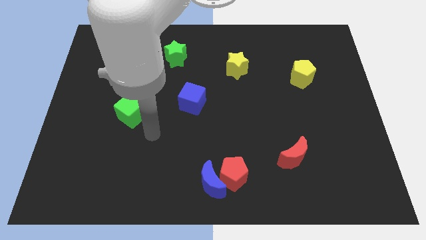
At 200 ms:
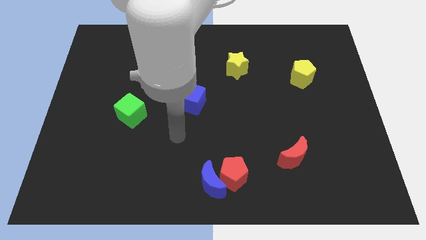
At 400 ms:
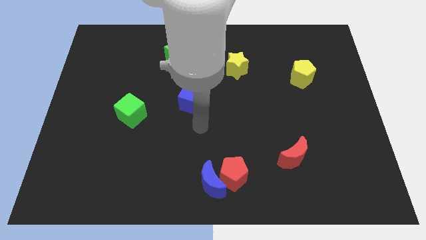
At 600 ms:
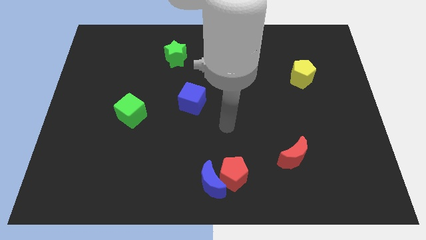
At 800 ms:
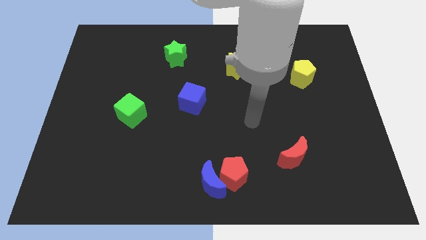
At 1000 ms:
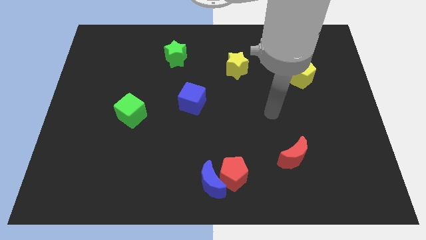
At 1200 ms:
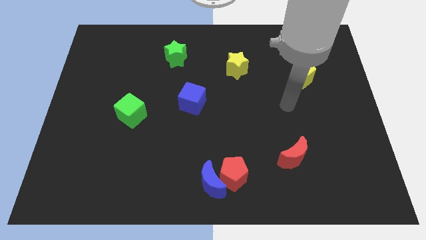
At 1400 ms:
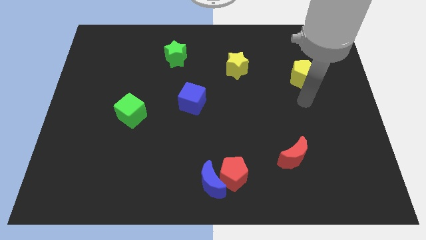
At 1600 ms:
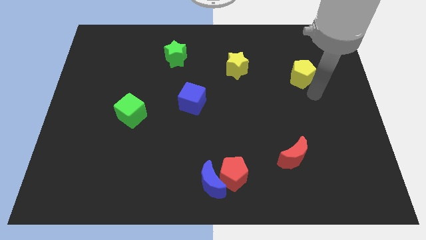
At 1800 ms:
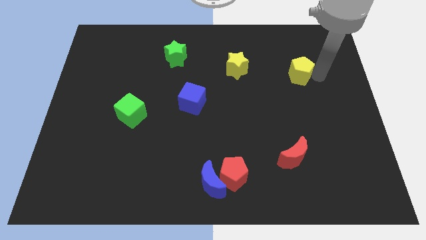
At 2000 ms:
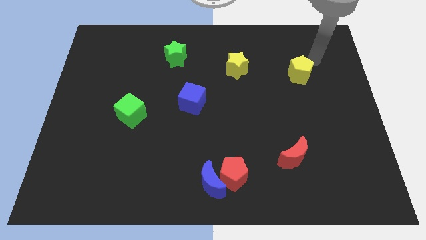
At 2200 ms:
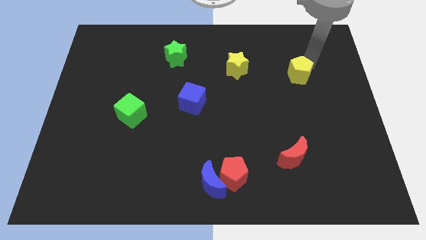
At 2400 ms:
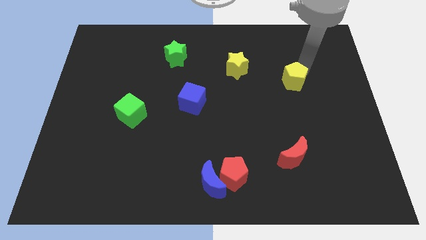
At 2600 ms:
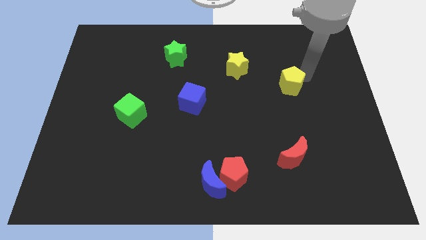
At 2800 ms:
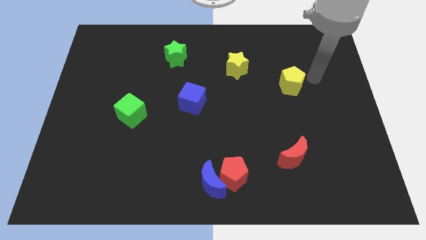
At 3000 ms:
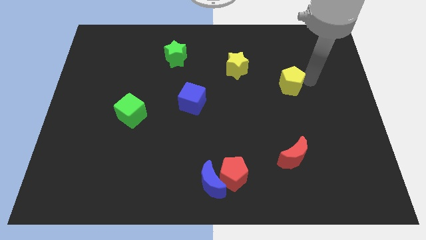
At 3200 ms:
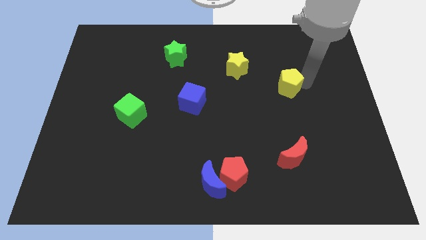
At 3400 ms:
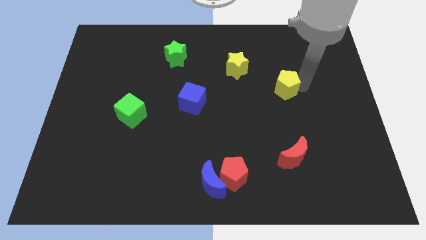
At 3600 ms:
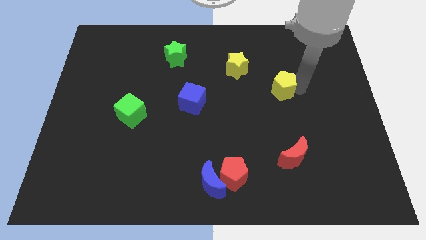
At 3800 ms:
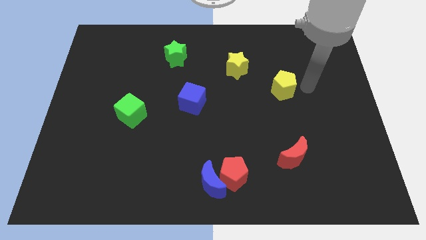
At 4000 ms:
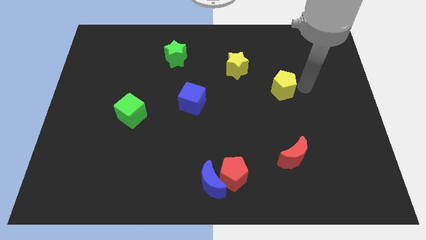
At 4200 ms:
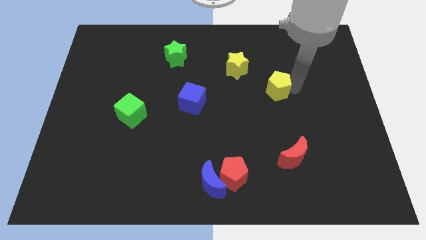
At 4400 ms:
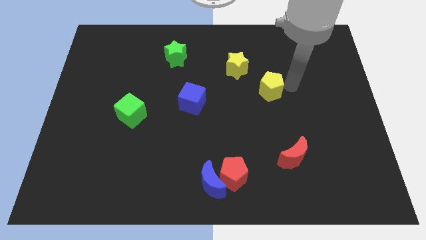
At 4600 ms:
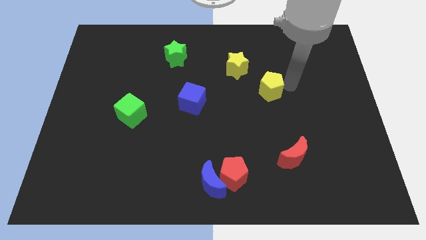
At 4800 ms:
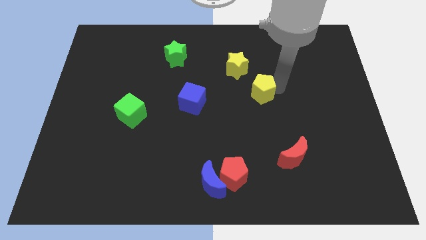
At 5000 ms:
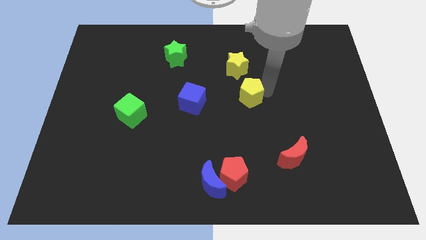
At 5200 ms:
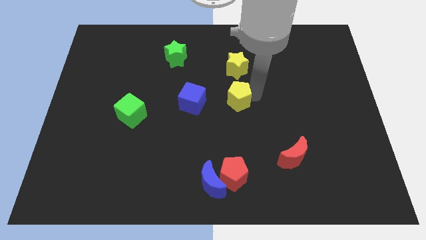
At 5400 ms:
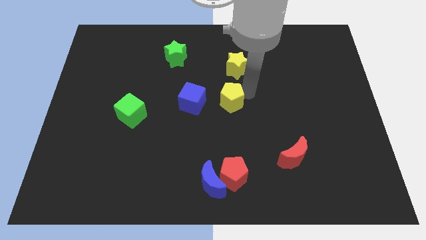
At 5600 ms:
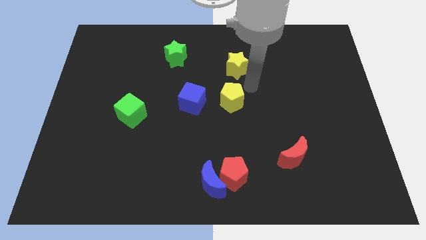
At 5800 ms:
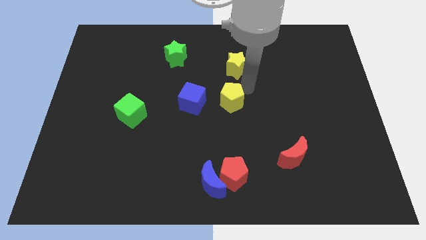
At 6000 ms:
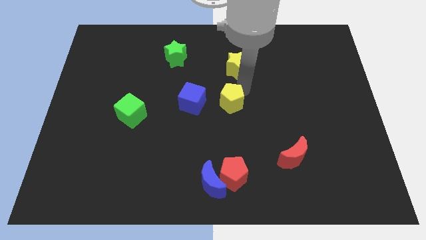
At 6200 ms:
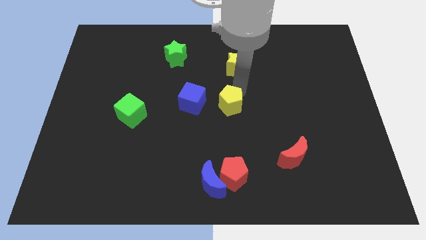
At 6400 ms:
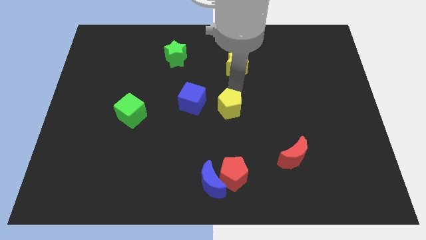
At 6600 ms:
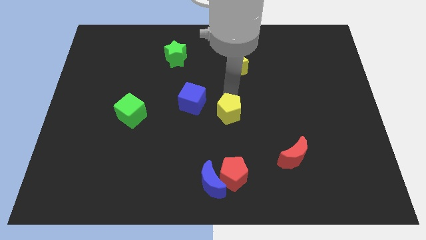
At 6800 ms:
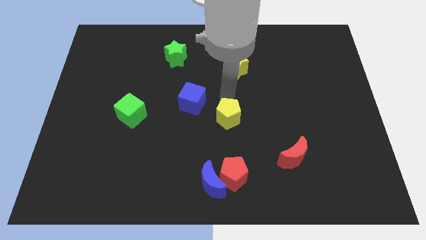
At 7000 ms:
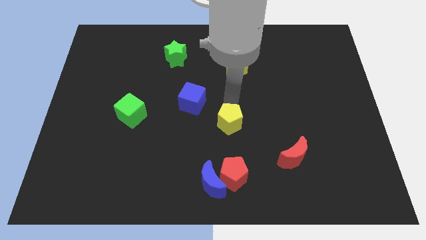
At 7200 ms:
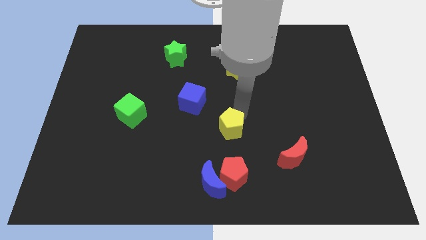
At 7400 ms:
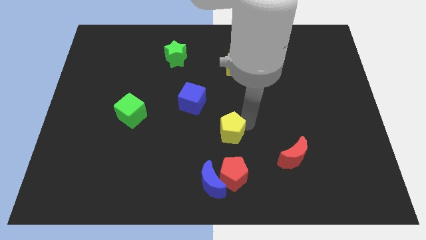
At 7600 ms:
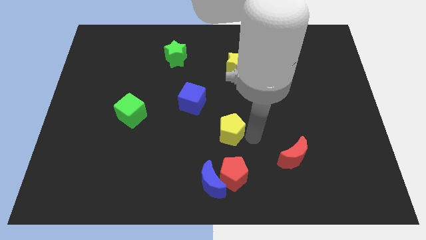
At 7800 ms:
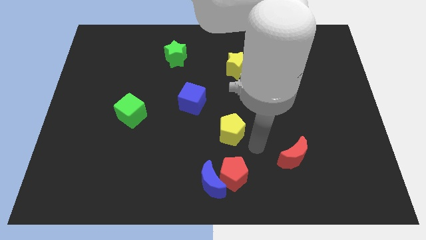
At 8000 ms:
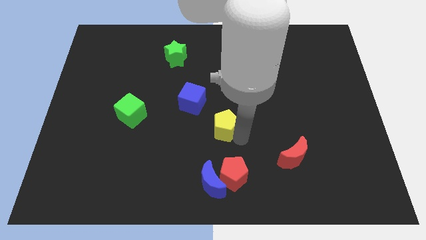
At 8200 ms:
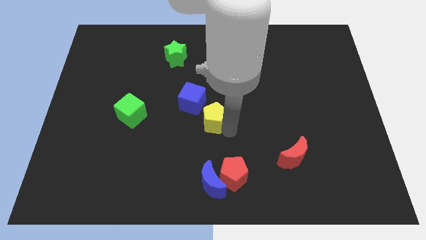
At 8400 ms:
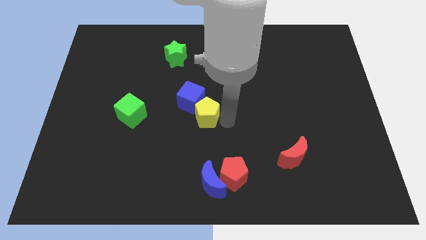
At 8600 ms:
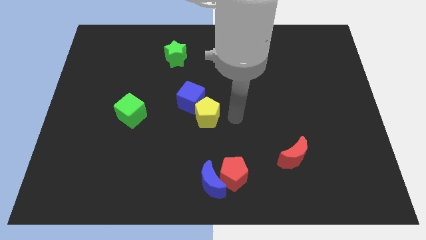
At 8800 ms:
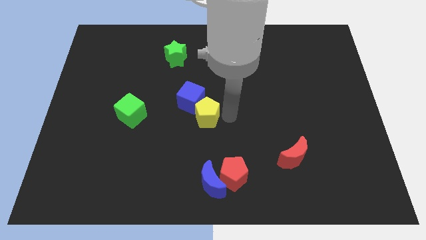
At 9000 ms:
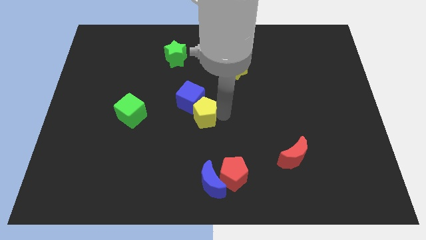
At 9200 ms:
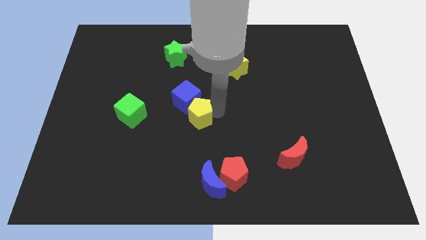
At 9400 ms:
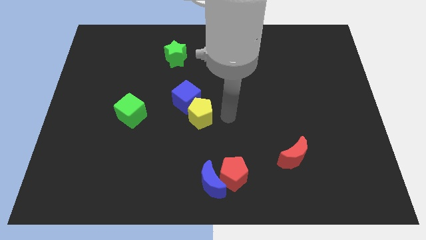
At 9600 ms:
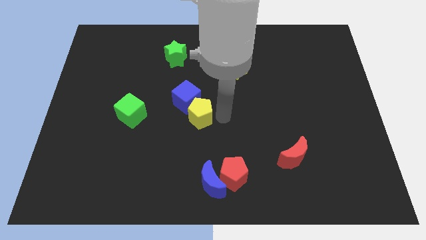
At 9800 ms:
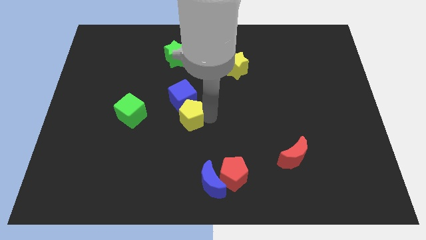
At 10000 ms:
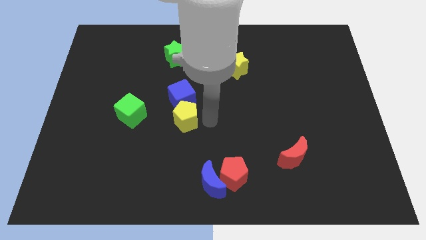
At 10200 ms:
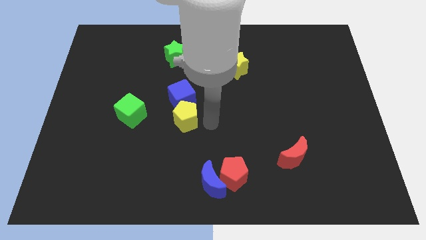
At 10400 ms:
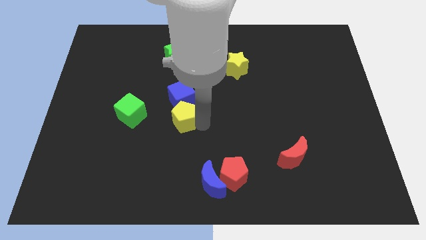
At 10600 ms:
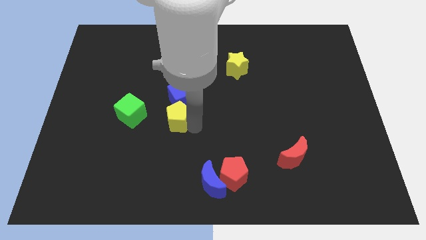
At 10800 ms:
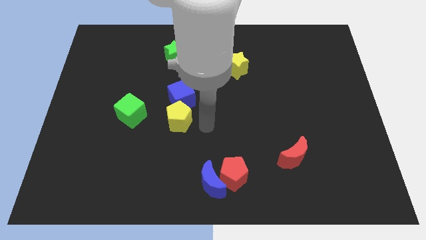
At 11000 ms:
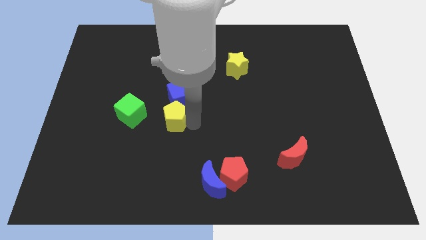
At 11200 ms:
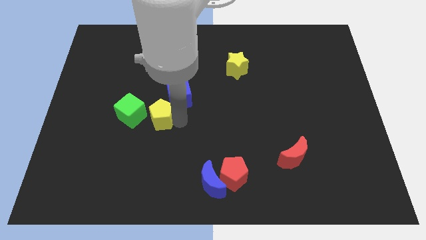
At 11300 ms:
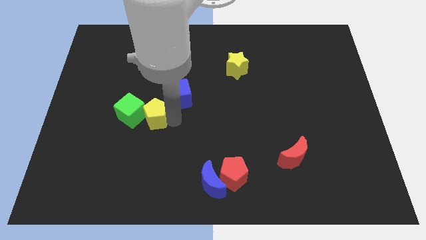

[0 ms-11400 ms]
move the yellow pentagon to the green cube

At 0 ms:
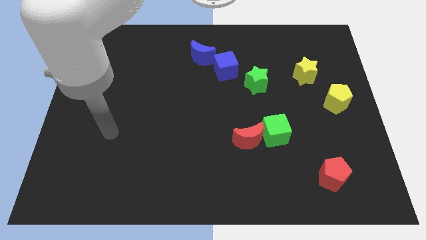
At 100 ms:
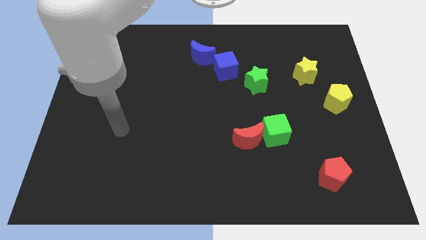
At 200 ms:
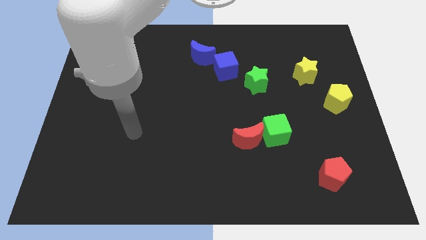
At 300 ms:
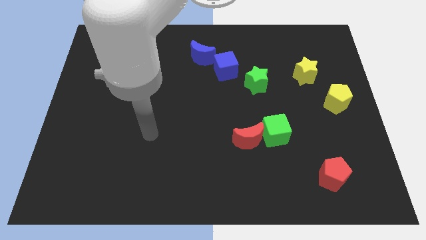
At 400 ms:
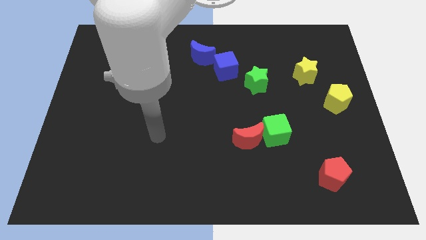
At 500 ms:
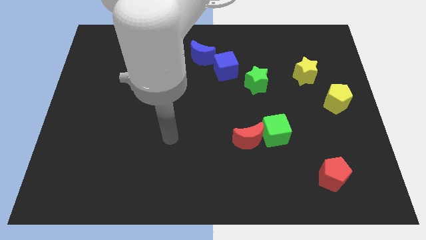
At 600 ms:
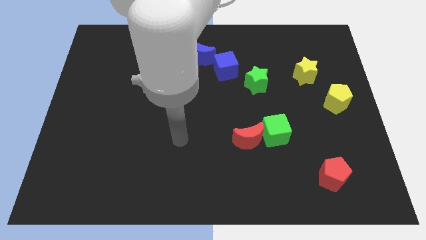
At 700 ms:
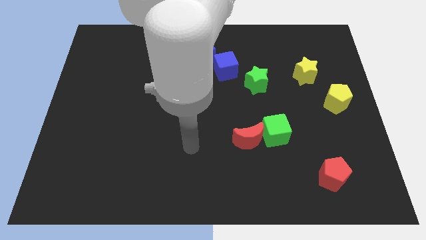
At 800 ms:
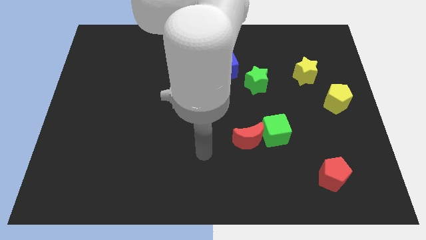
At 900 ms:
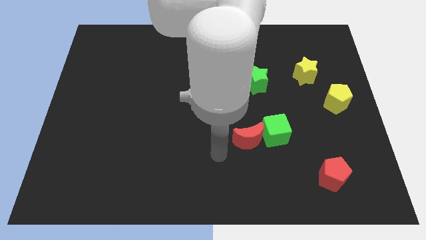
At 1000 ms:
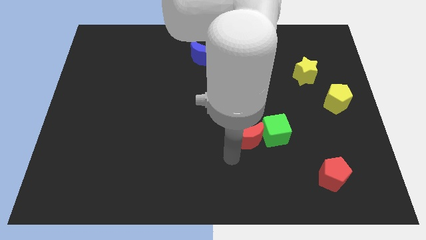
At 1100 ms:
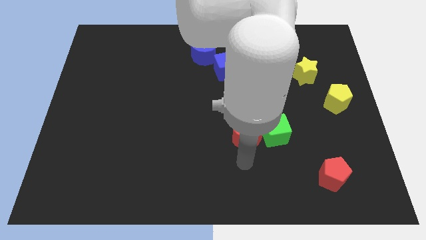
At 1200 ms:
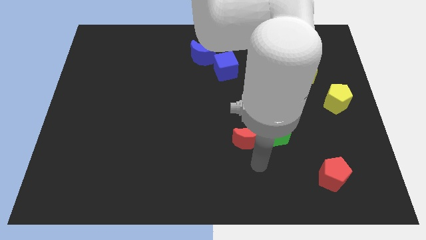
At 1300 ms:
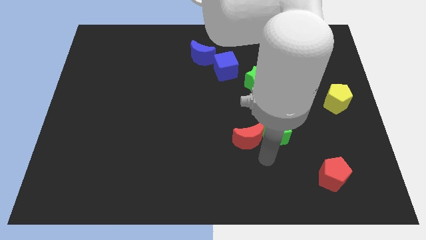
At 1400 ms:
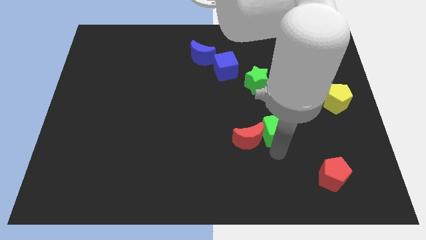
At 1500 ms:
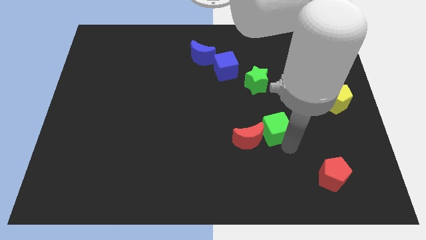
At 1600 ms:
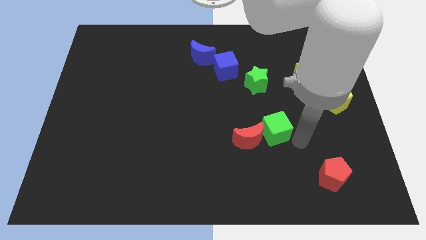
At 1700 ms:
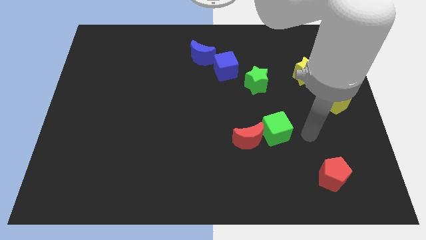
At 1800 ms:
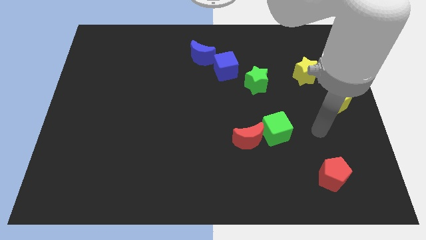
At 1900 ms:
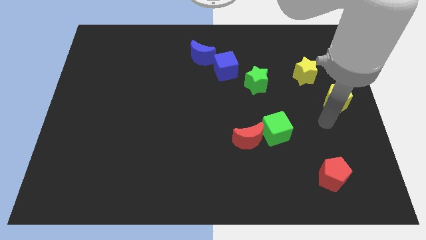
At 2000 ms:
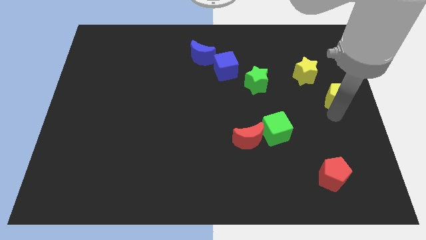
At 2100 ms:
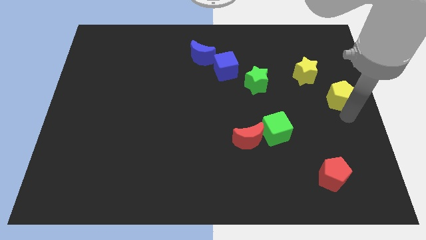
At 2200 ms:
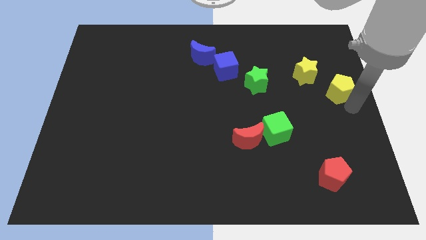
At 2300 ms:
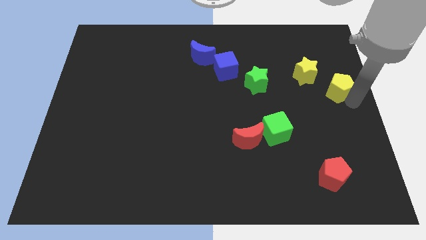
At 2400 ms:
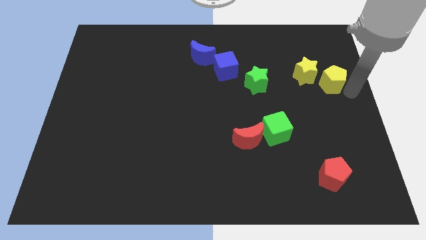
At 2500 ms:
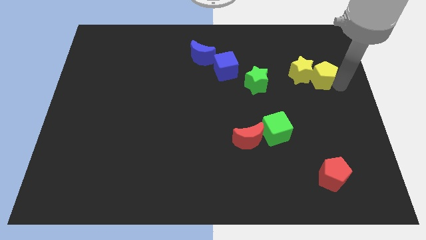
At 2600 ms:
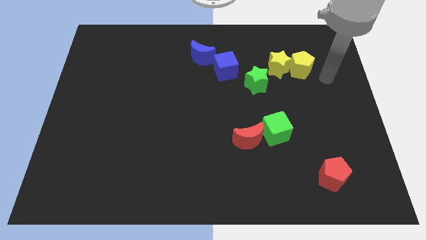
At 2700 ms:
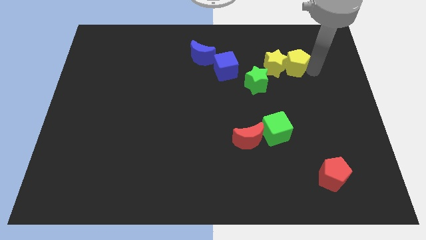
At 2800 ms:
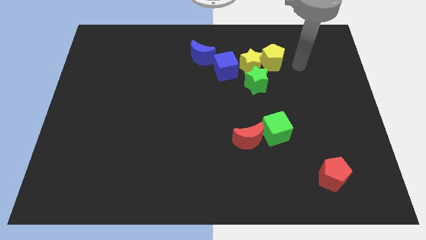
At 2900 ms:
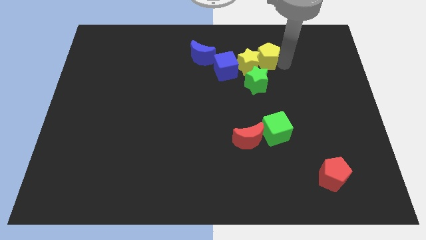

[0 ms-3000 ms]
push the yellow star towards the blue cube
